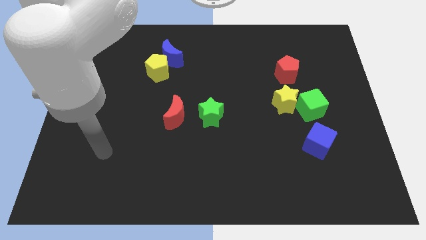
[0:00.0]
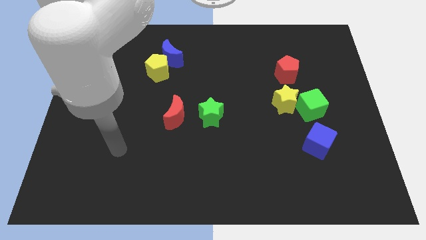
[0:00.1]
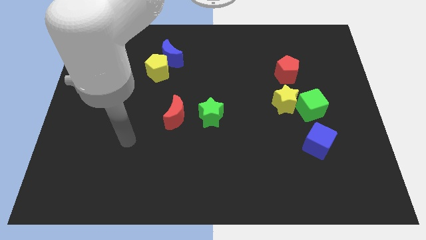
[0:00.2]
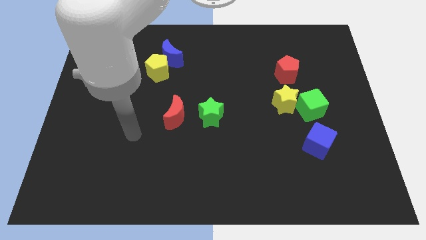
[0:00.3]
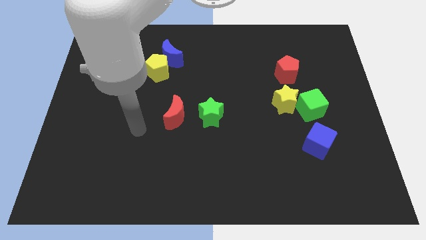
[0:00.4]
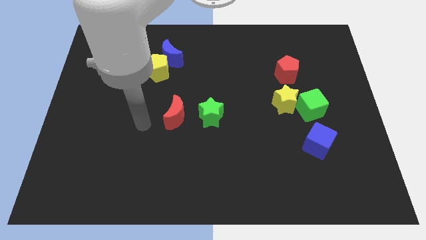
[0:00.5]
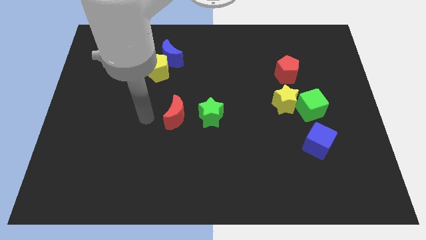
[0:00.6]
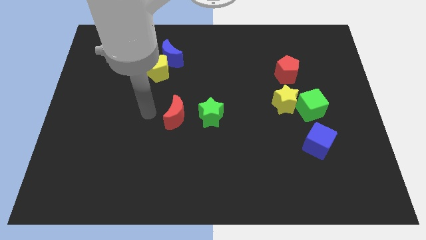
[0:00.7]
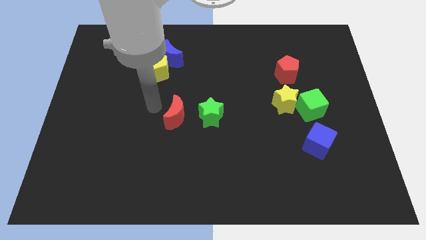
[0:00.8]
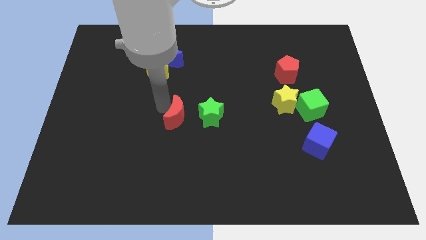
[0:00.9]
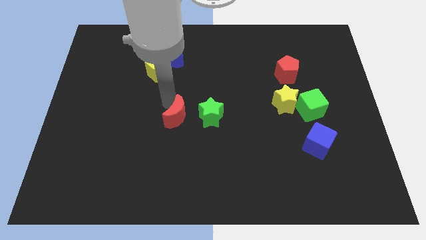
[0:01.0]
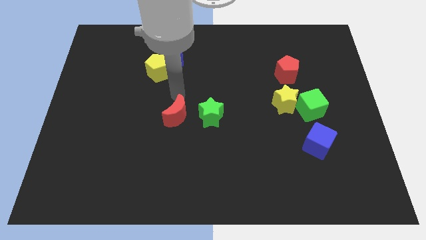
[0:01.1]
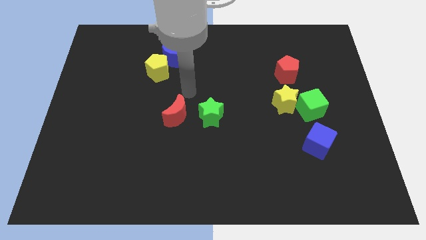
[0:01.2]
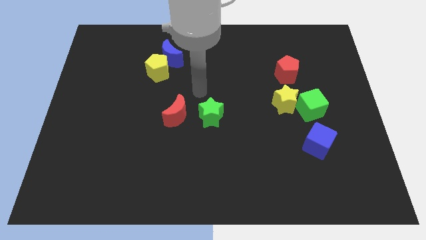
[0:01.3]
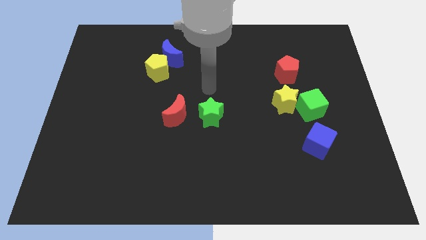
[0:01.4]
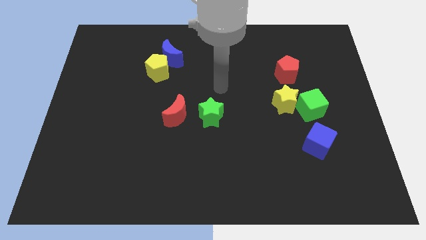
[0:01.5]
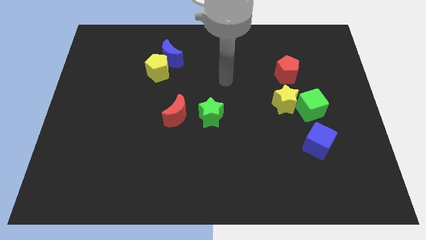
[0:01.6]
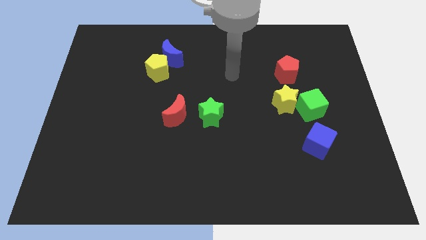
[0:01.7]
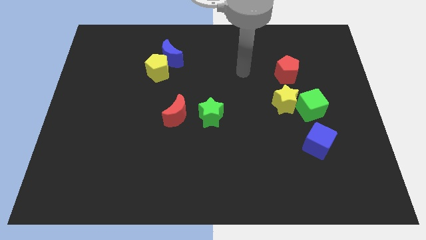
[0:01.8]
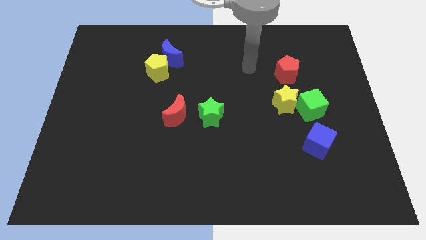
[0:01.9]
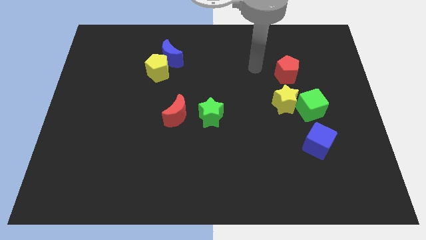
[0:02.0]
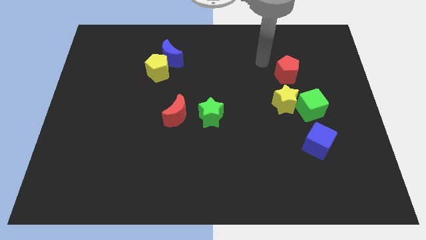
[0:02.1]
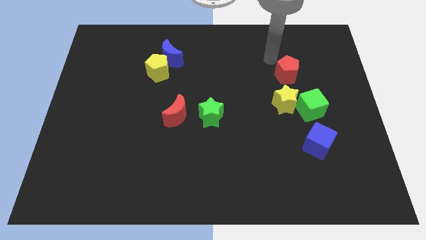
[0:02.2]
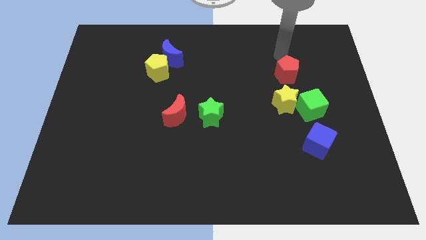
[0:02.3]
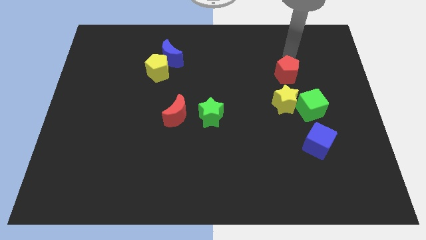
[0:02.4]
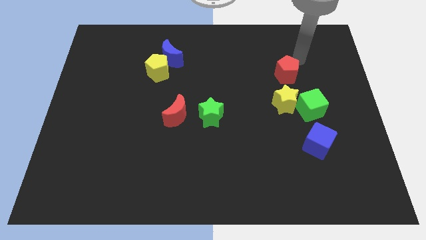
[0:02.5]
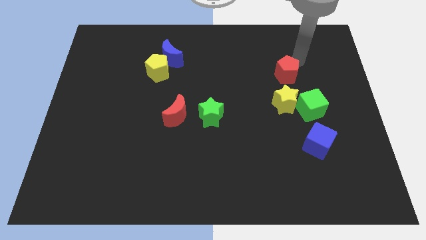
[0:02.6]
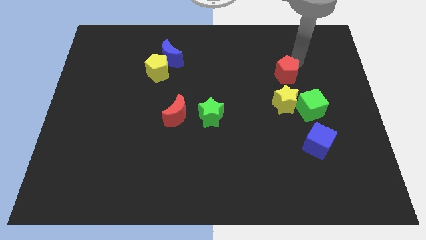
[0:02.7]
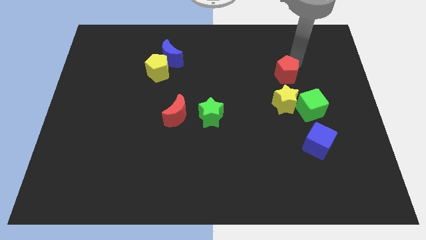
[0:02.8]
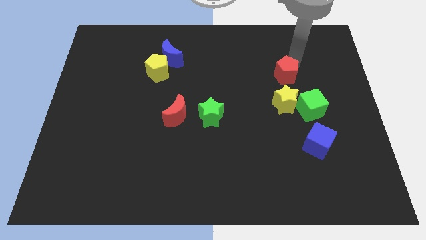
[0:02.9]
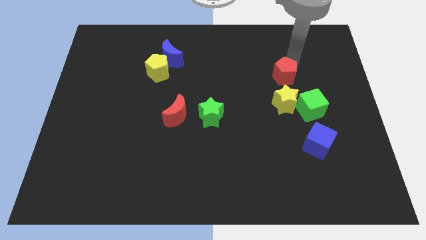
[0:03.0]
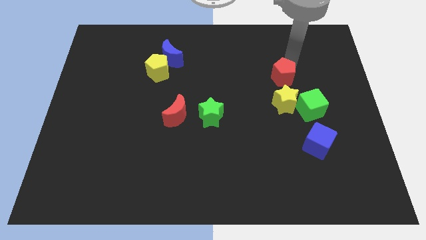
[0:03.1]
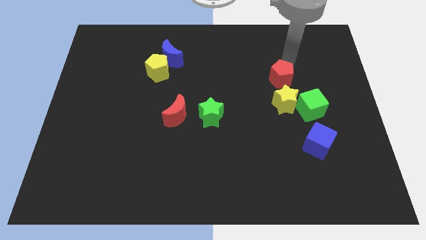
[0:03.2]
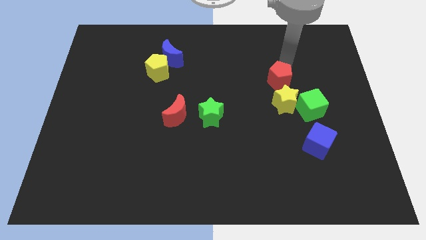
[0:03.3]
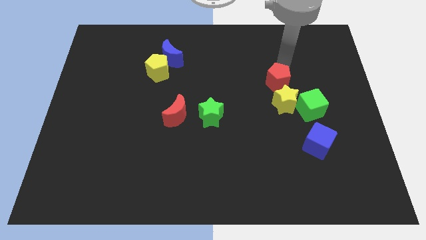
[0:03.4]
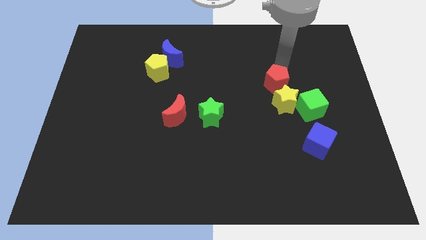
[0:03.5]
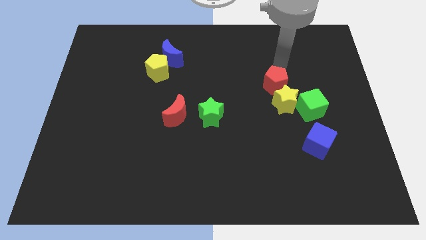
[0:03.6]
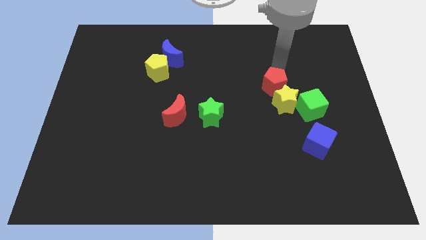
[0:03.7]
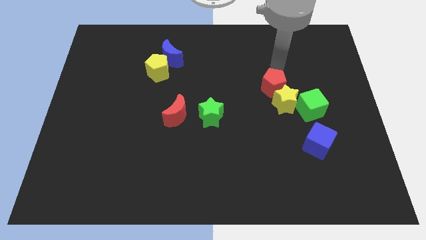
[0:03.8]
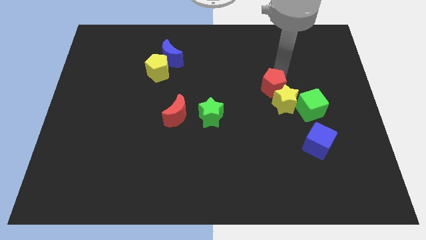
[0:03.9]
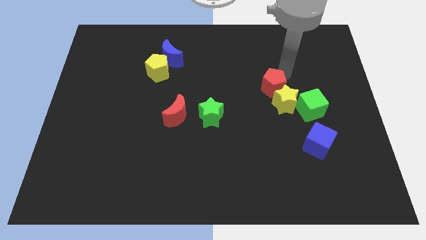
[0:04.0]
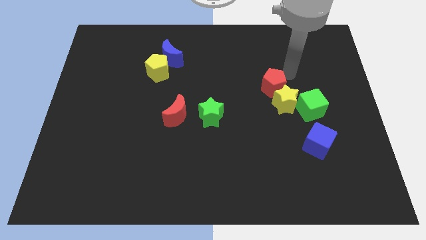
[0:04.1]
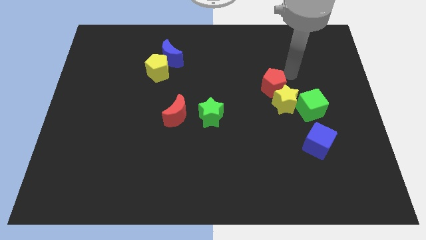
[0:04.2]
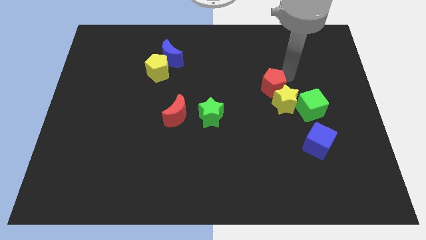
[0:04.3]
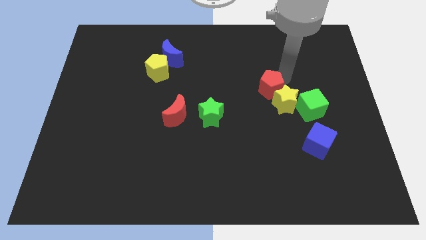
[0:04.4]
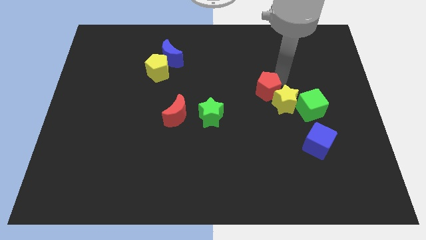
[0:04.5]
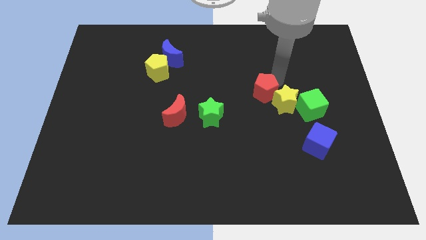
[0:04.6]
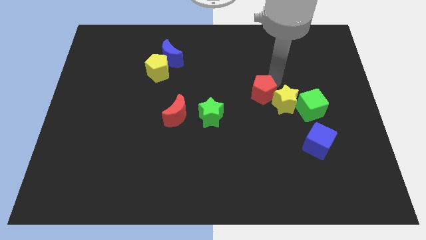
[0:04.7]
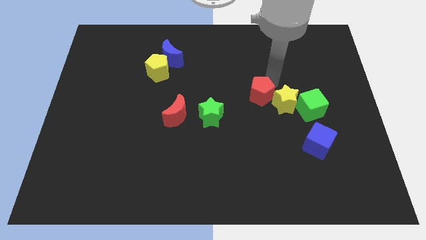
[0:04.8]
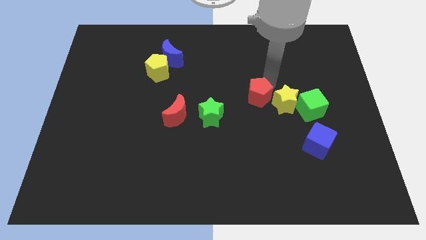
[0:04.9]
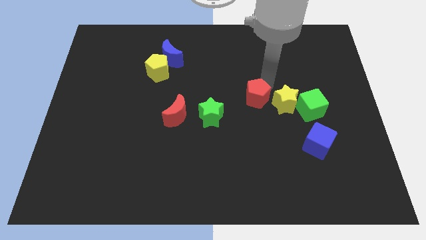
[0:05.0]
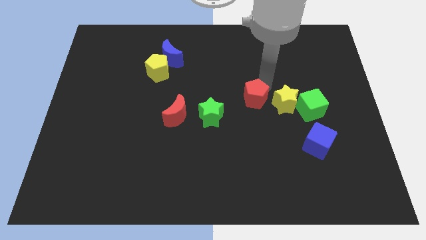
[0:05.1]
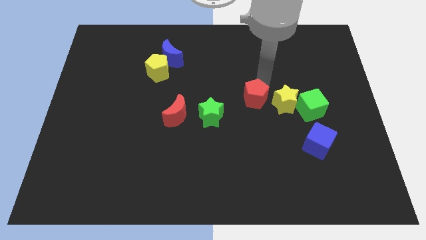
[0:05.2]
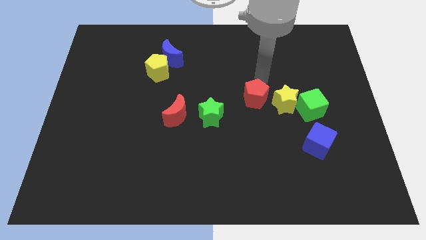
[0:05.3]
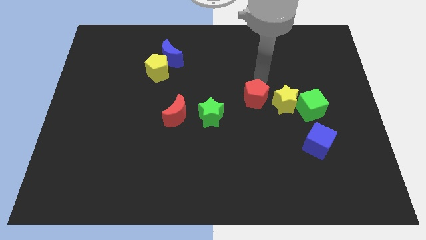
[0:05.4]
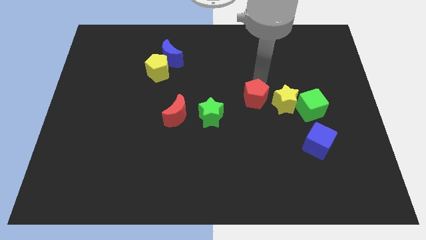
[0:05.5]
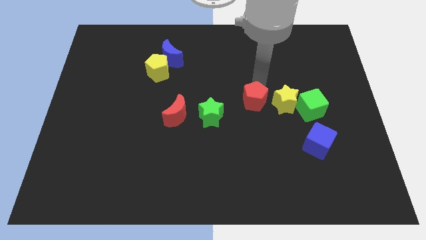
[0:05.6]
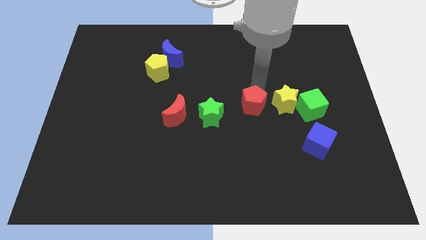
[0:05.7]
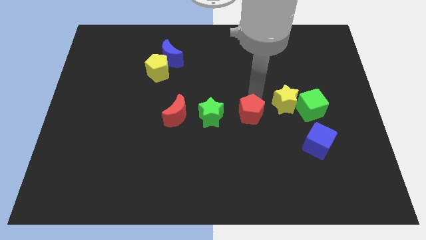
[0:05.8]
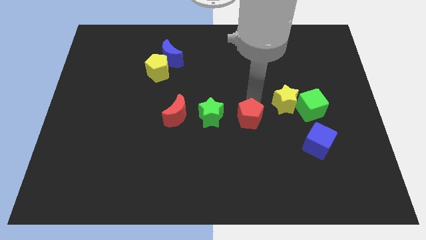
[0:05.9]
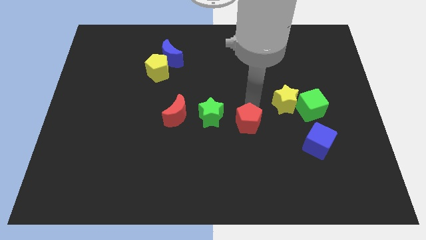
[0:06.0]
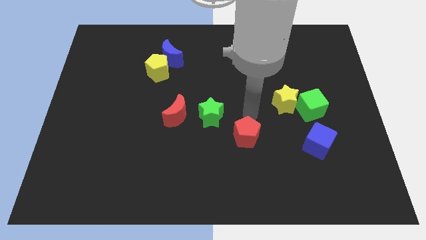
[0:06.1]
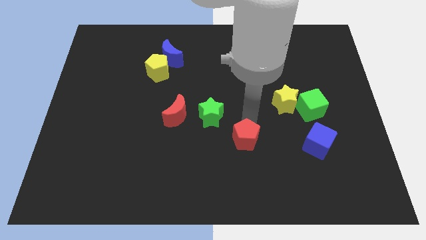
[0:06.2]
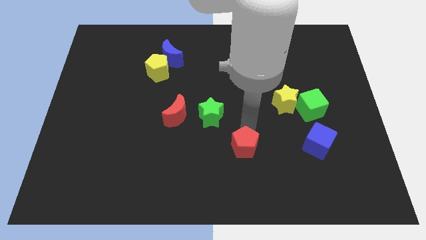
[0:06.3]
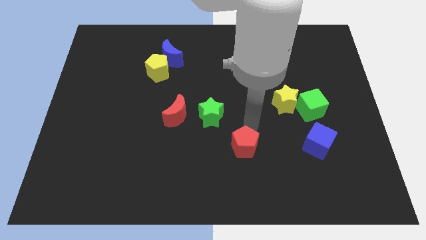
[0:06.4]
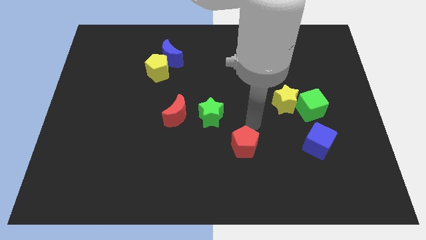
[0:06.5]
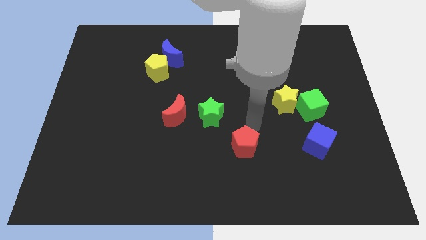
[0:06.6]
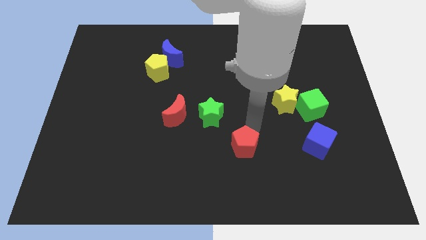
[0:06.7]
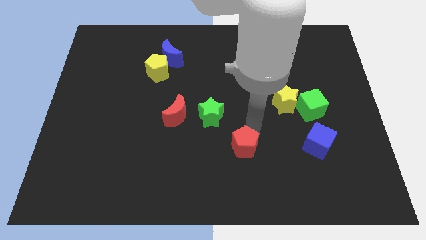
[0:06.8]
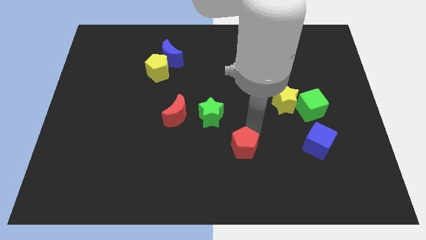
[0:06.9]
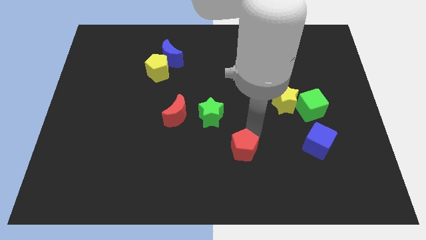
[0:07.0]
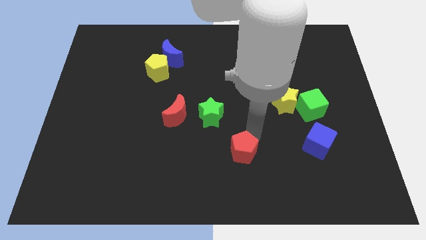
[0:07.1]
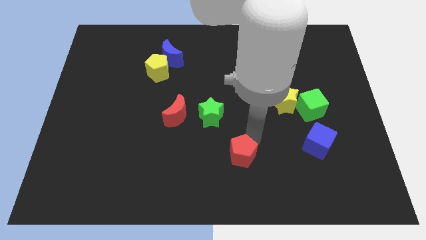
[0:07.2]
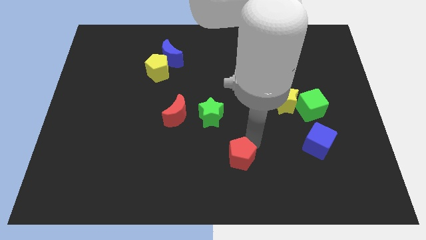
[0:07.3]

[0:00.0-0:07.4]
put the red pentagon to the bottom
